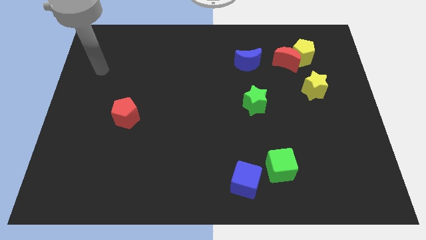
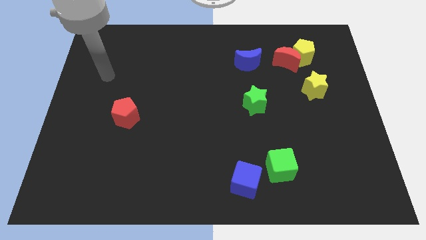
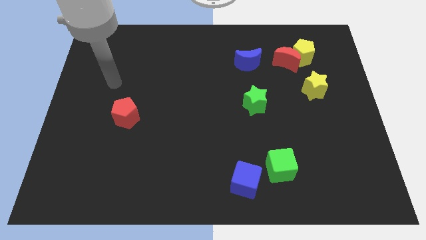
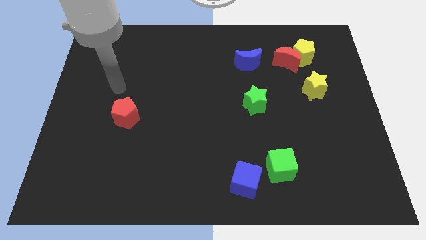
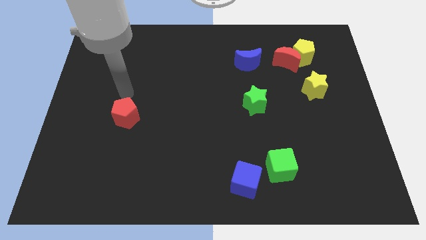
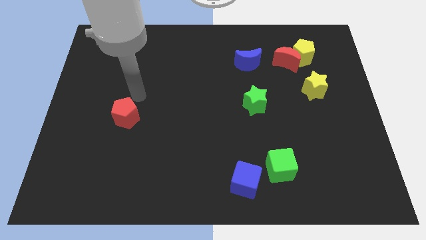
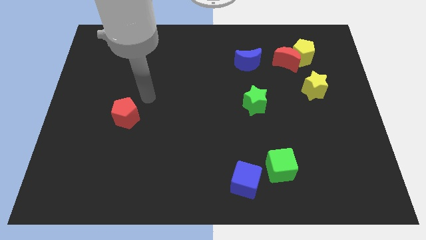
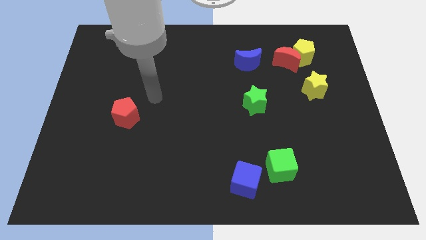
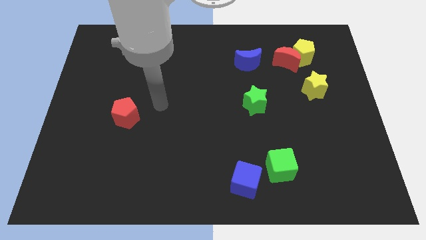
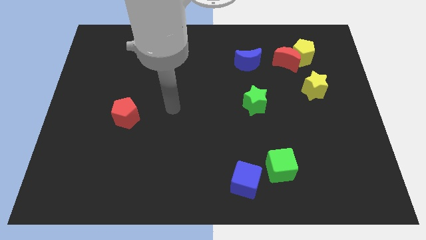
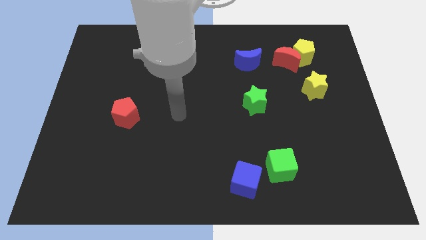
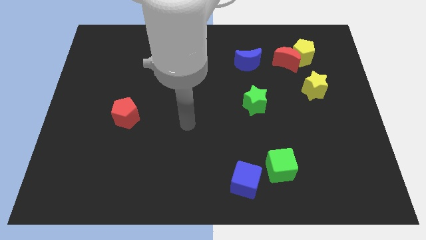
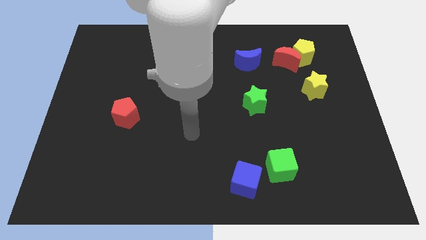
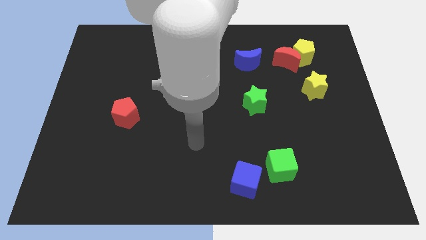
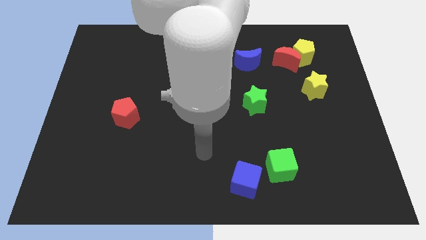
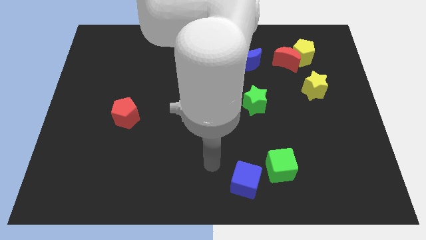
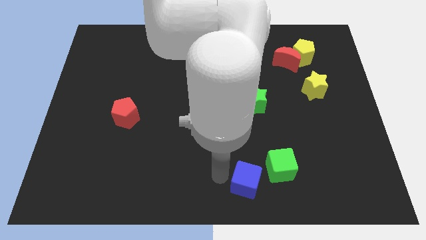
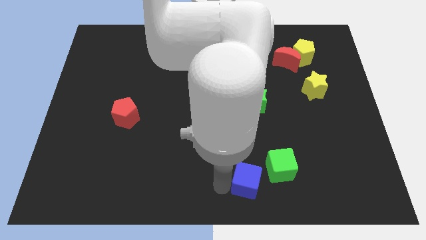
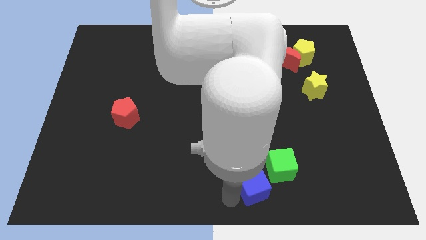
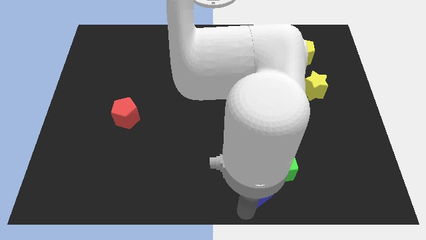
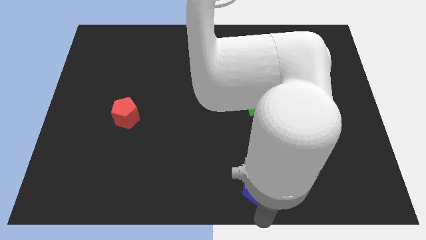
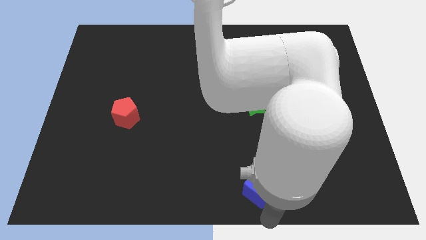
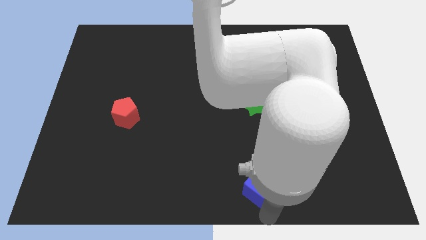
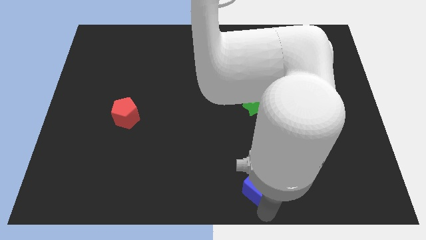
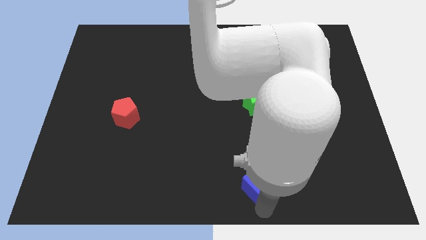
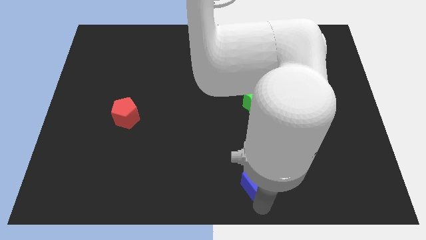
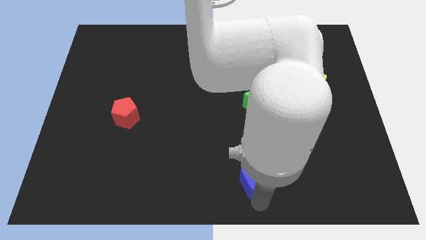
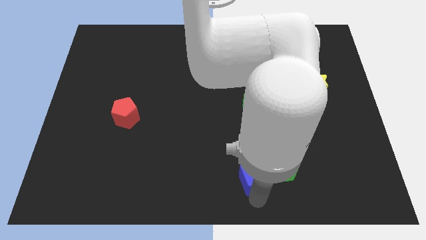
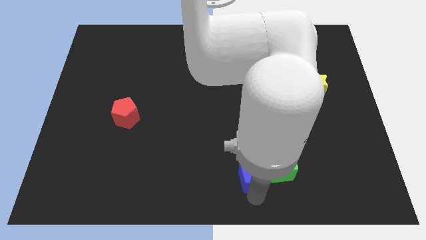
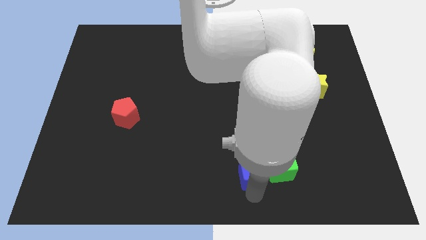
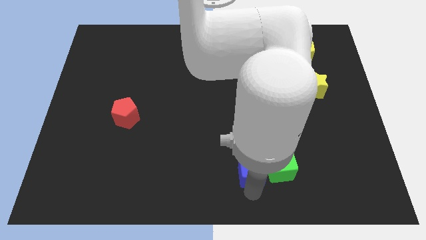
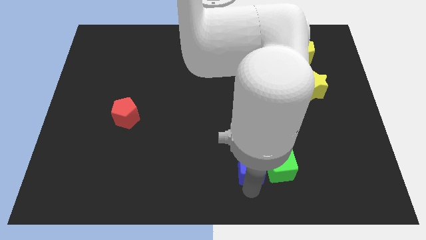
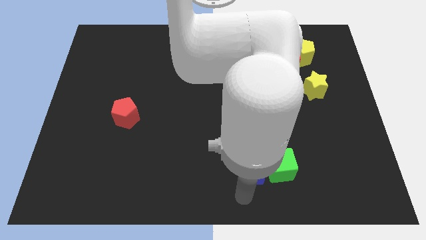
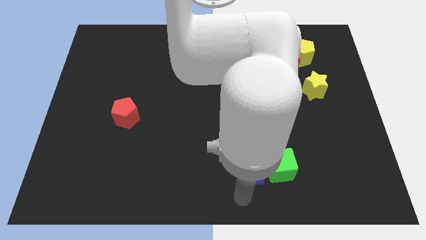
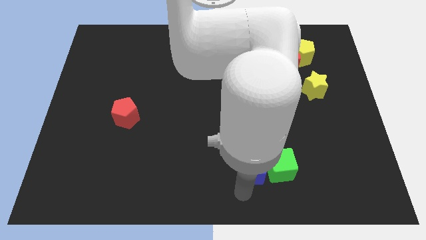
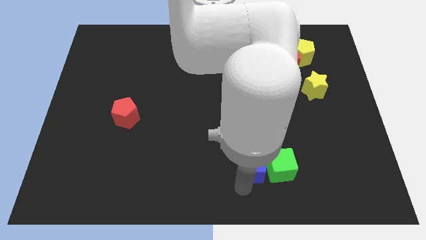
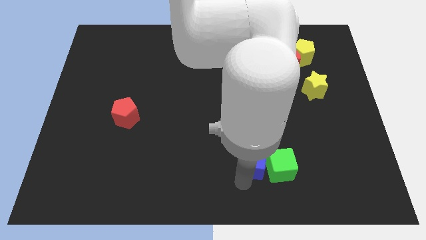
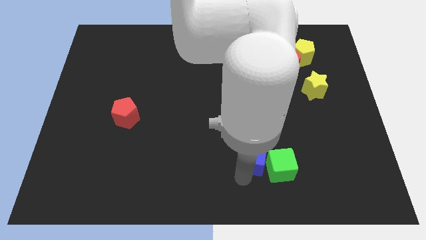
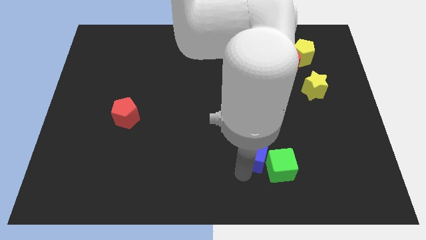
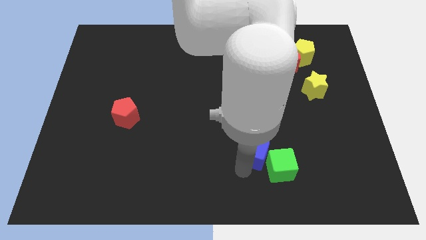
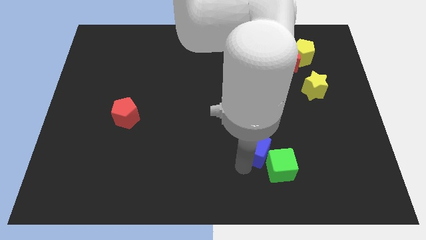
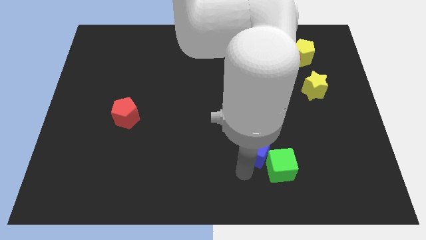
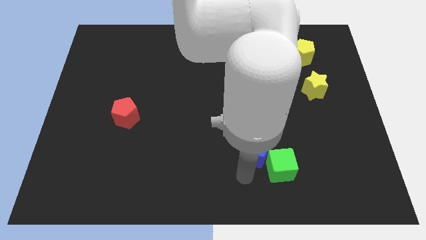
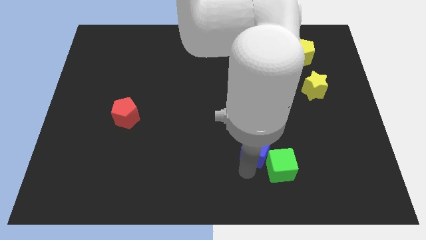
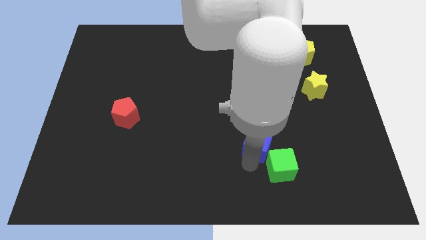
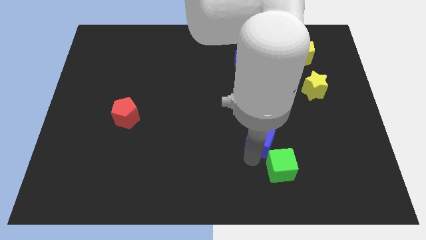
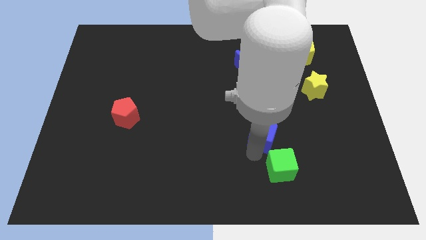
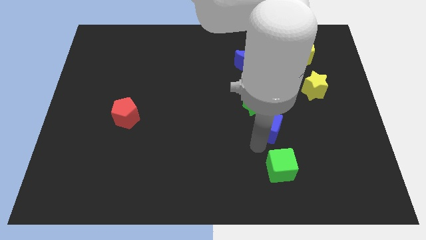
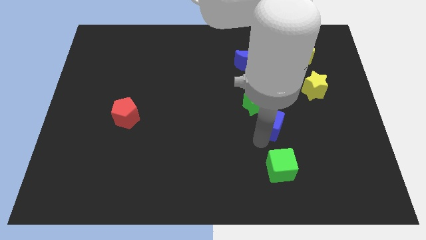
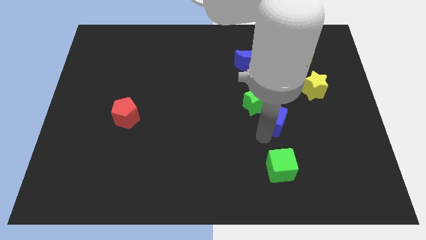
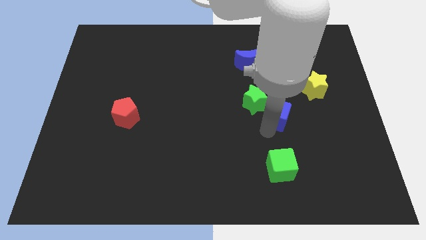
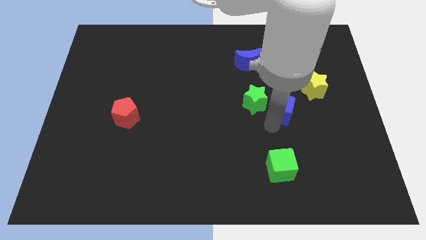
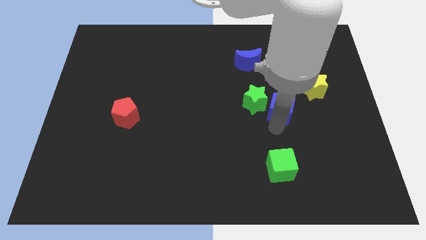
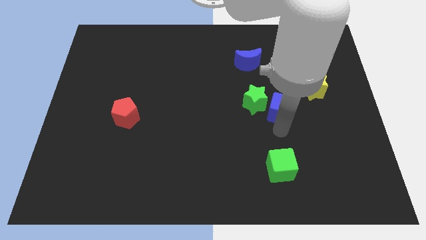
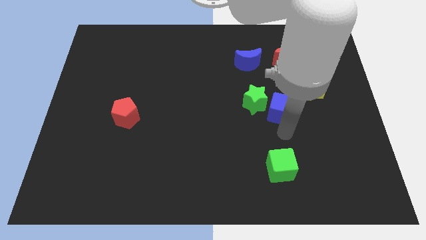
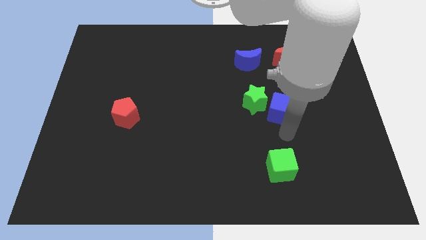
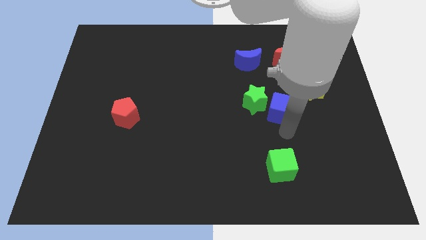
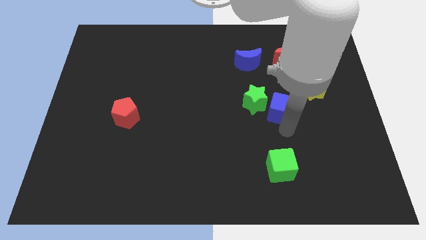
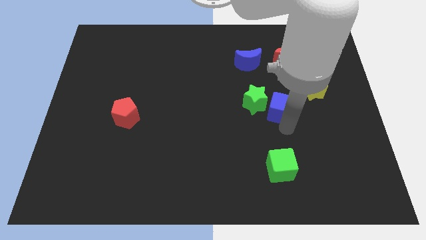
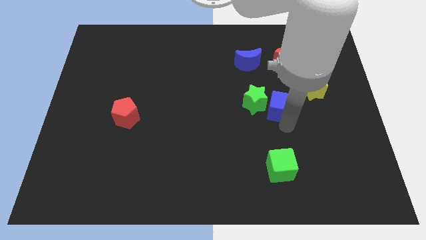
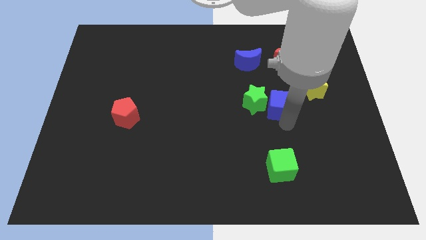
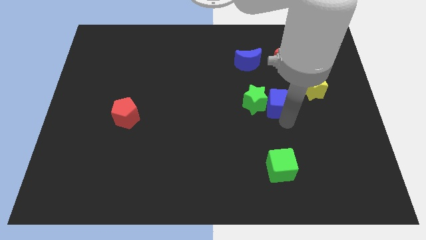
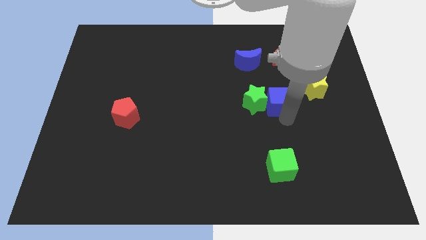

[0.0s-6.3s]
push the blue cube below the red moon

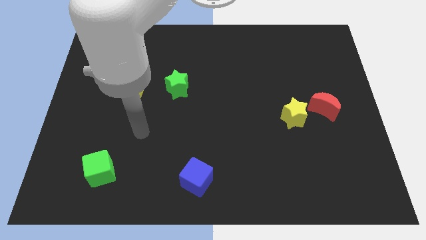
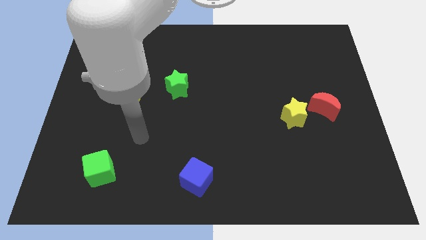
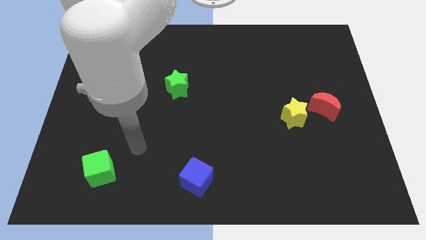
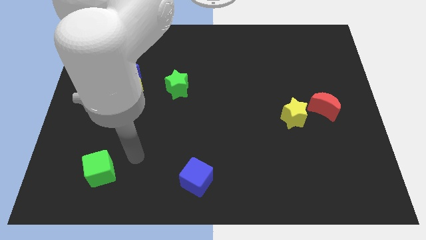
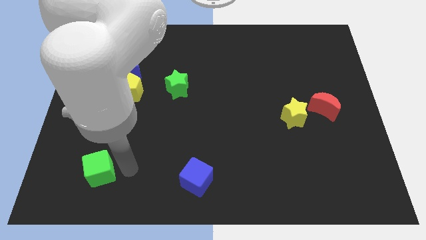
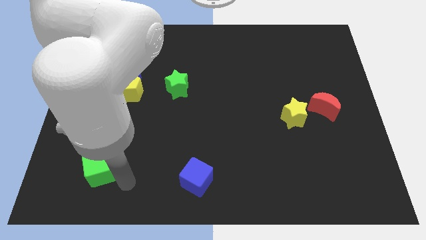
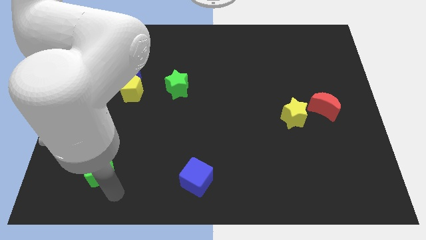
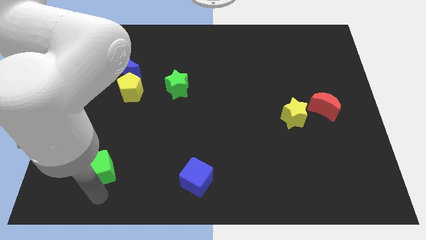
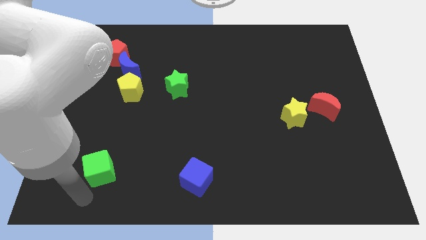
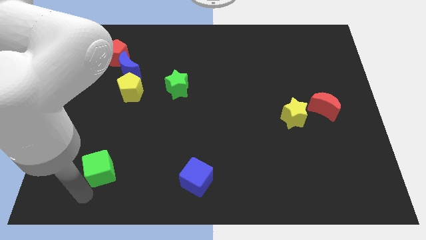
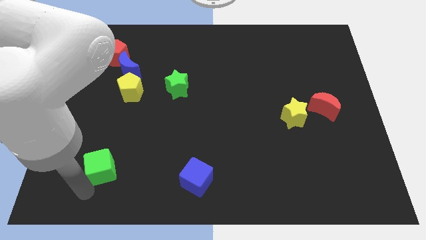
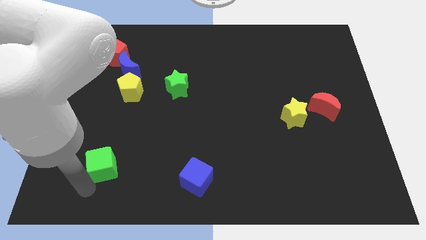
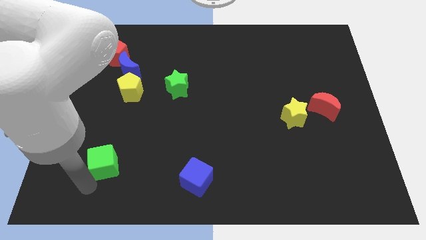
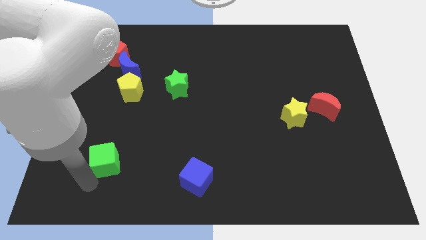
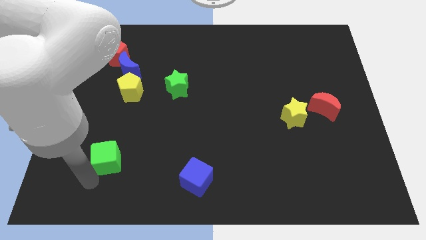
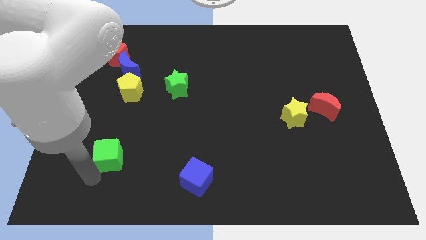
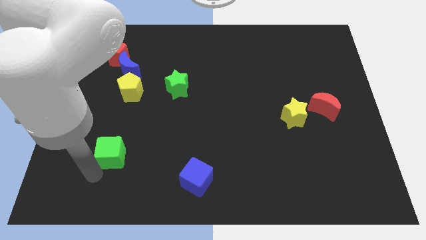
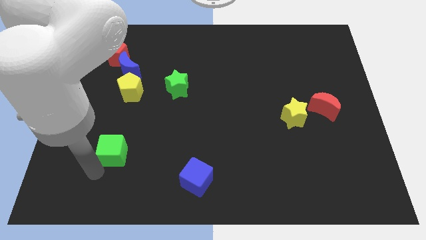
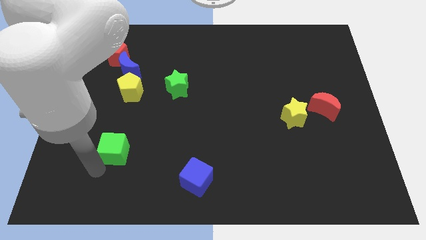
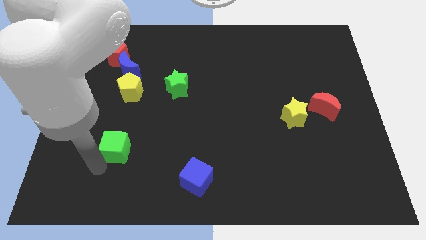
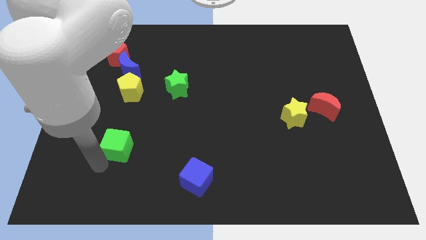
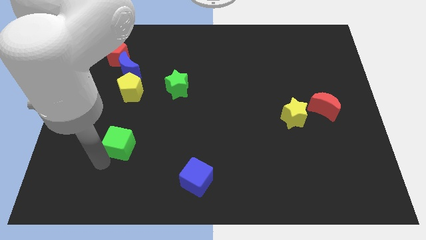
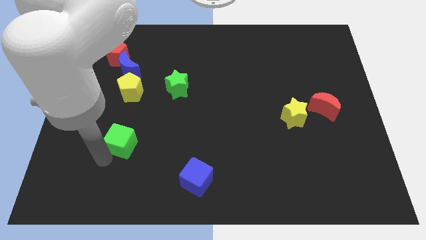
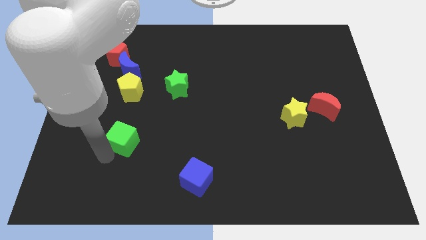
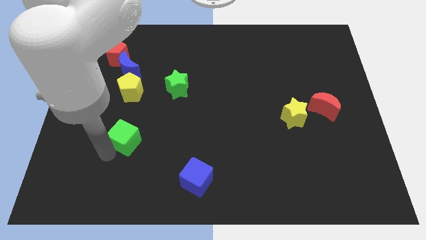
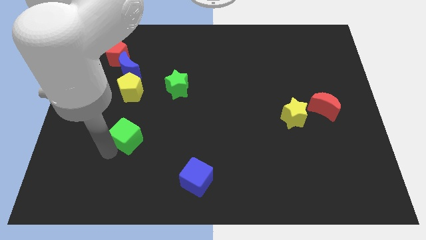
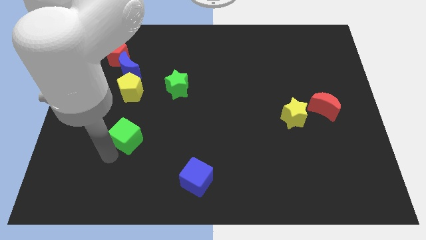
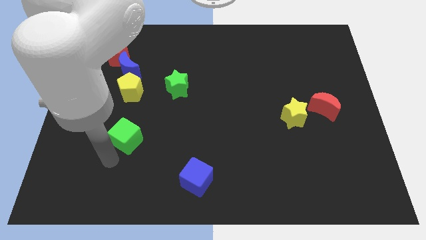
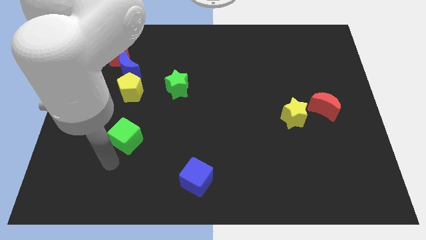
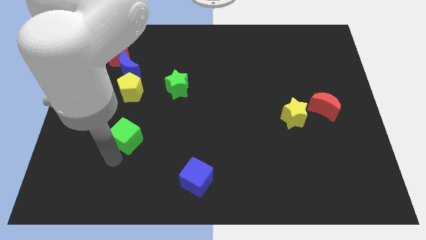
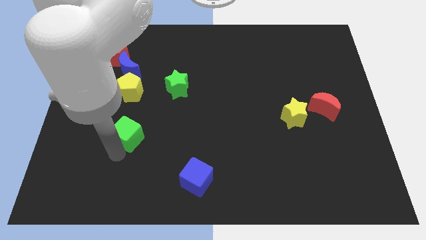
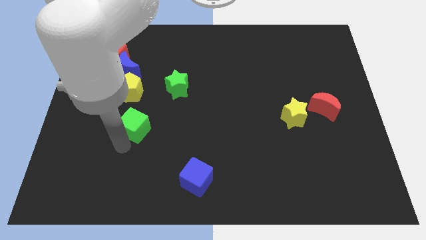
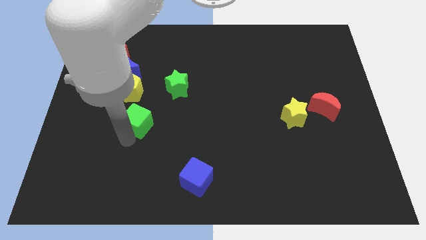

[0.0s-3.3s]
slide the green cube to the bottom right side of the yellow pentagon
